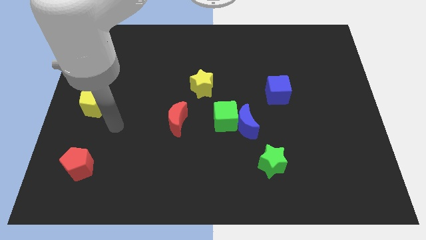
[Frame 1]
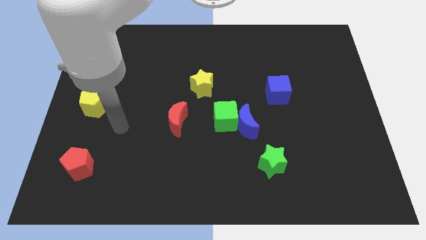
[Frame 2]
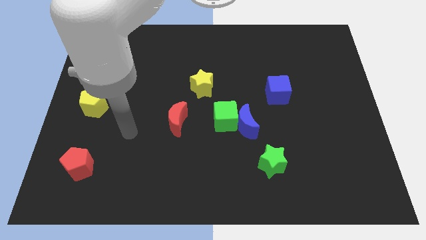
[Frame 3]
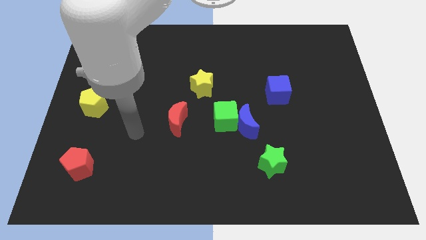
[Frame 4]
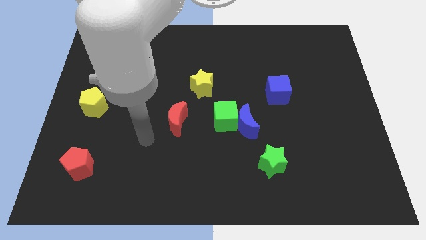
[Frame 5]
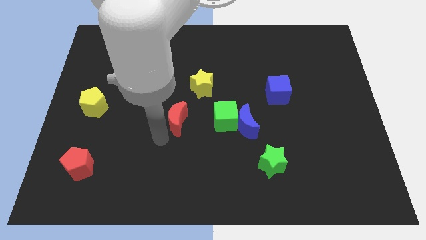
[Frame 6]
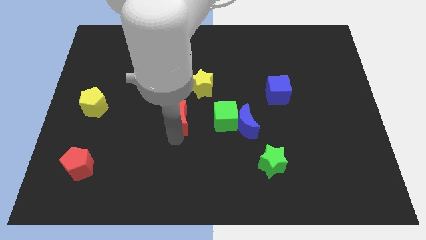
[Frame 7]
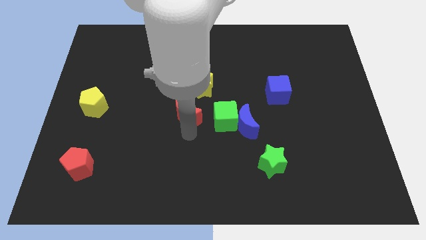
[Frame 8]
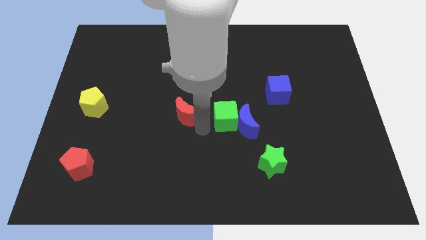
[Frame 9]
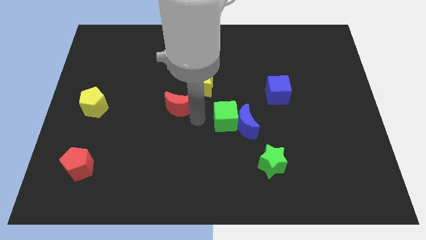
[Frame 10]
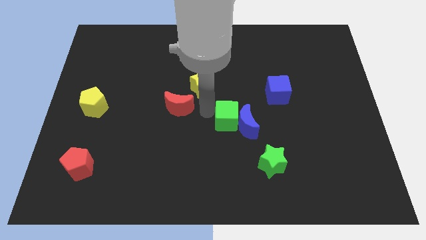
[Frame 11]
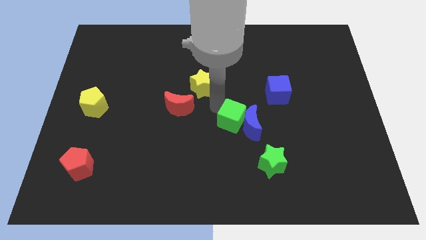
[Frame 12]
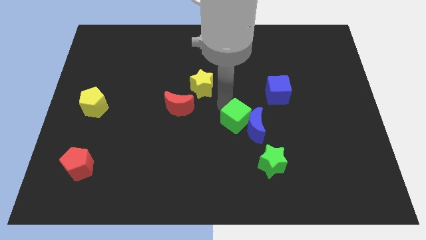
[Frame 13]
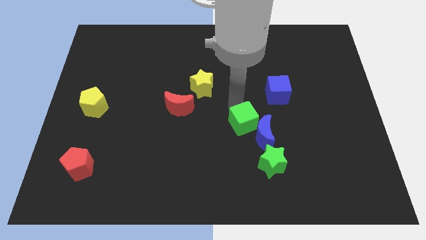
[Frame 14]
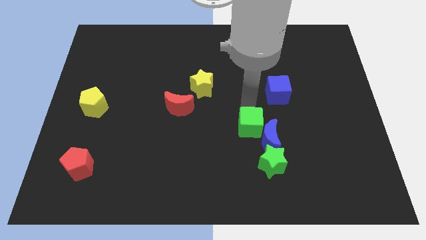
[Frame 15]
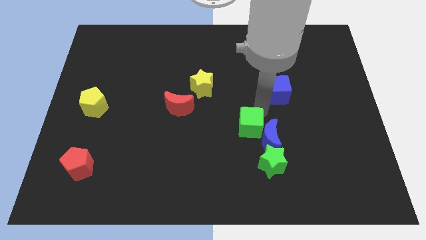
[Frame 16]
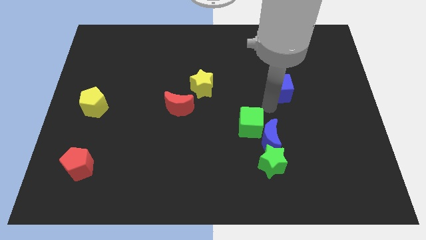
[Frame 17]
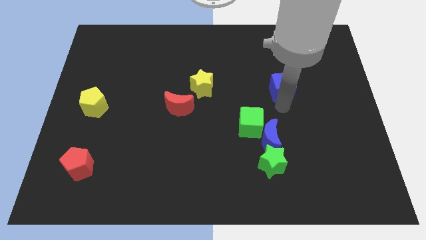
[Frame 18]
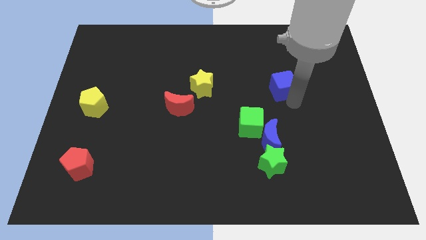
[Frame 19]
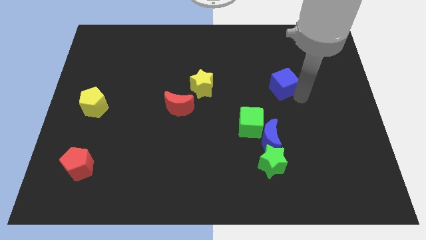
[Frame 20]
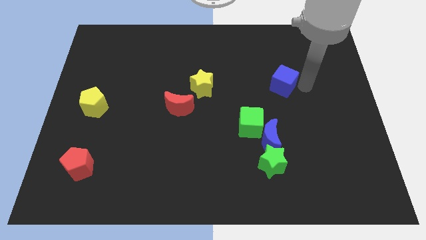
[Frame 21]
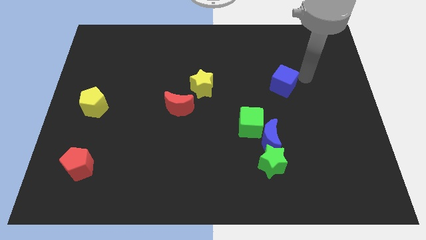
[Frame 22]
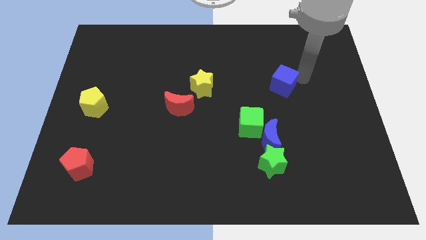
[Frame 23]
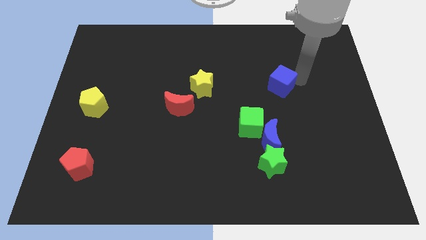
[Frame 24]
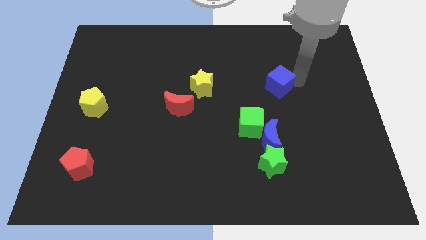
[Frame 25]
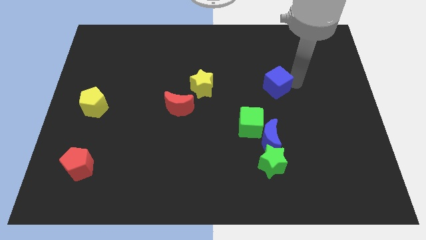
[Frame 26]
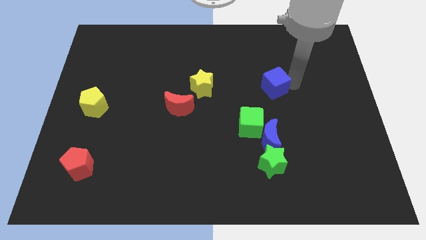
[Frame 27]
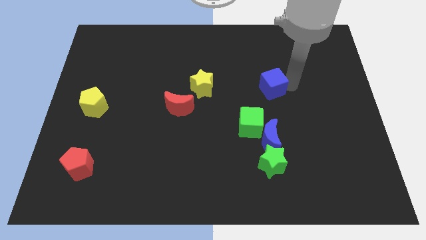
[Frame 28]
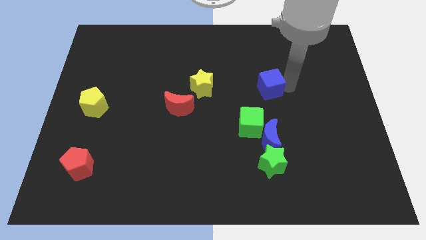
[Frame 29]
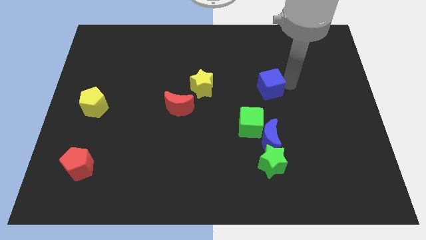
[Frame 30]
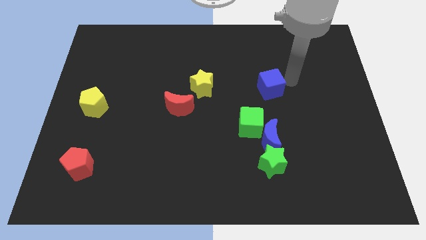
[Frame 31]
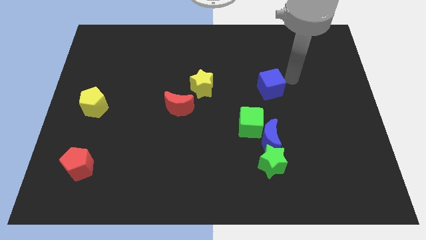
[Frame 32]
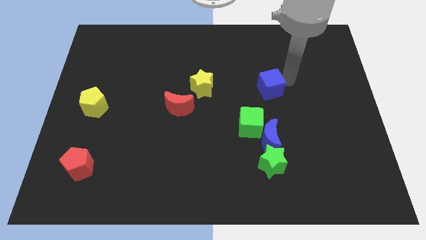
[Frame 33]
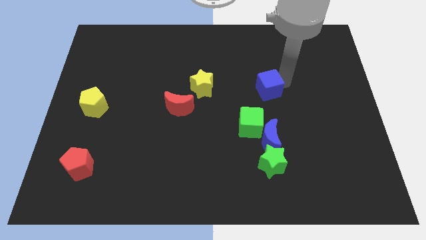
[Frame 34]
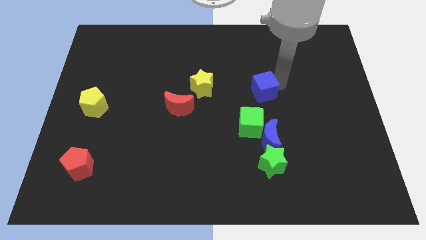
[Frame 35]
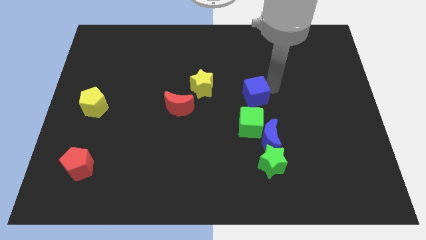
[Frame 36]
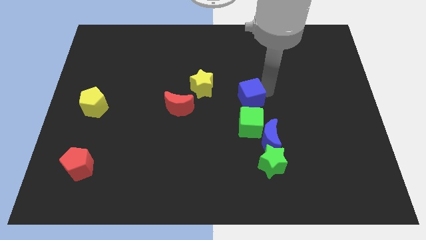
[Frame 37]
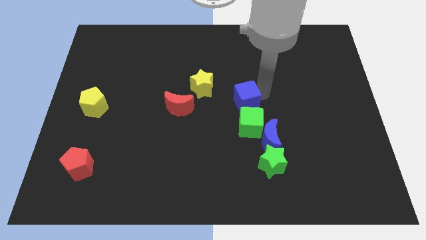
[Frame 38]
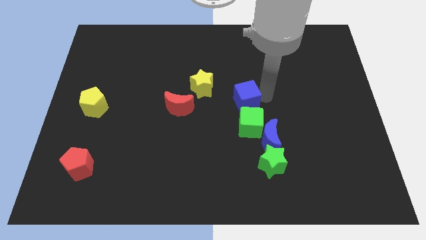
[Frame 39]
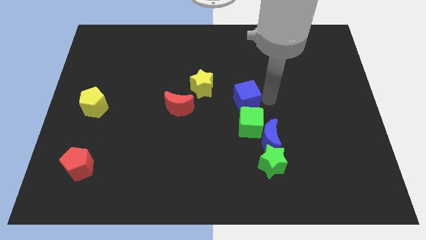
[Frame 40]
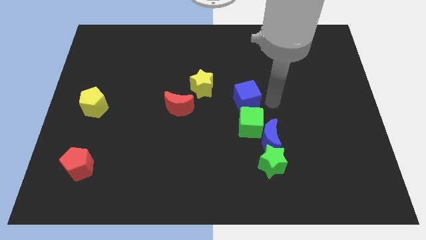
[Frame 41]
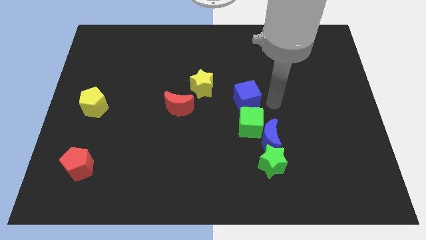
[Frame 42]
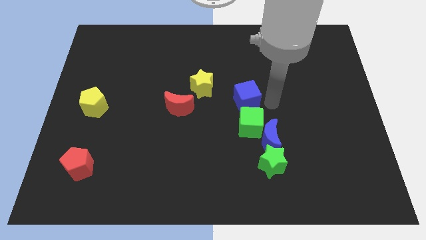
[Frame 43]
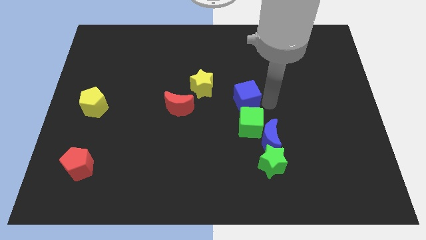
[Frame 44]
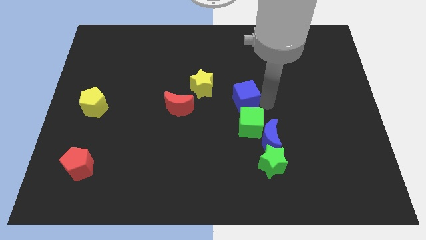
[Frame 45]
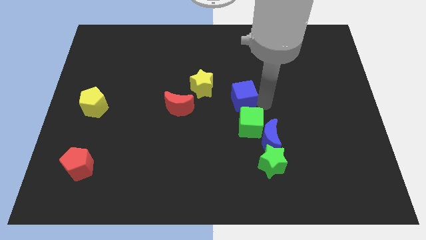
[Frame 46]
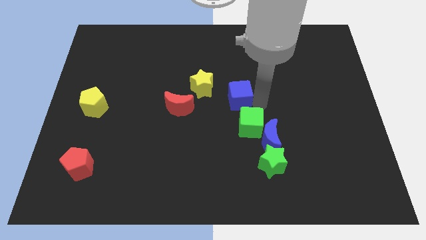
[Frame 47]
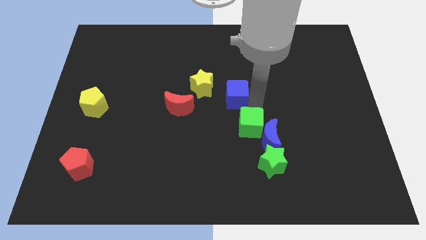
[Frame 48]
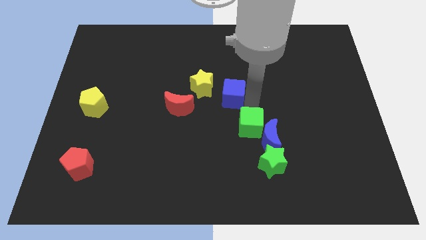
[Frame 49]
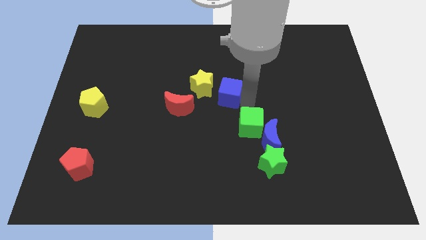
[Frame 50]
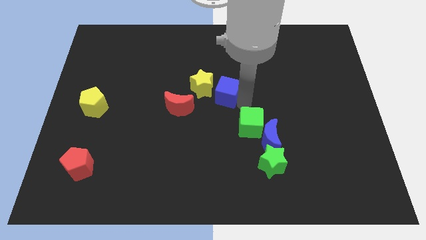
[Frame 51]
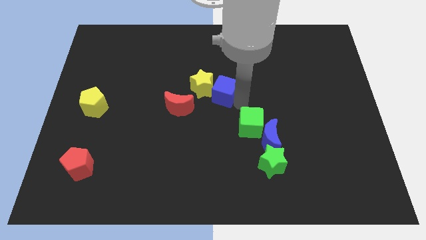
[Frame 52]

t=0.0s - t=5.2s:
move the blue cube towards the yellow star

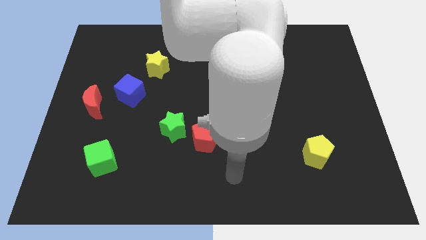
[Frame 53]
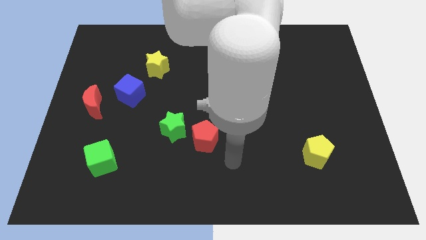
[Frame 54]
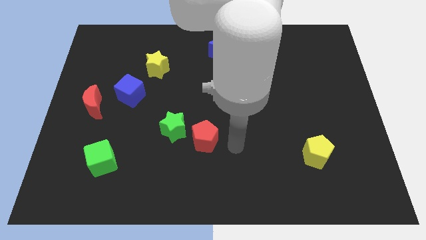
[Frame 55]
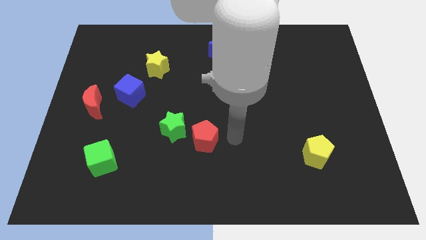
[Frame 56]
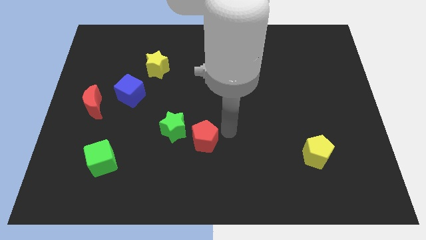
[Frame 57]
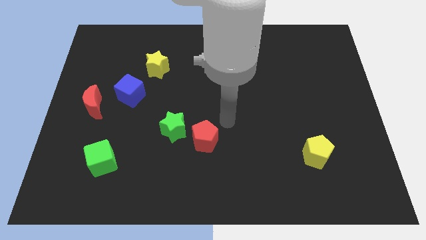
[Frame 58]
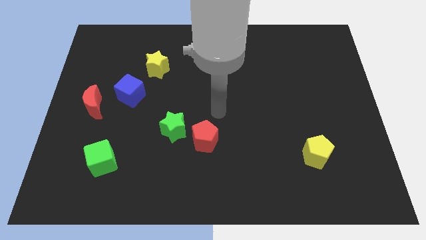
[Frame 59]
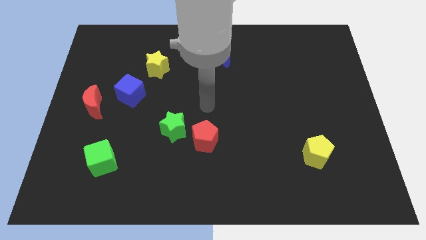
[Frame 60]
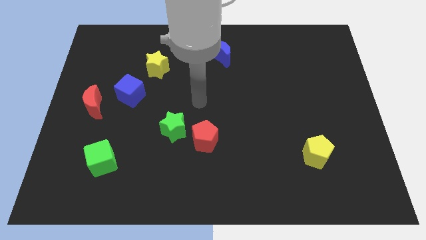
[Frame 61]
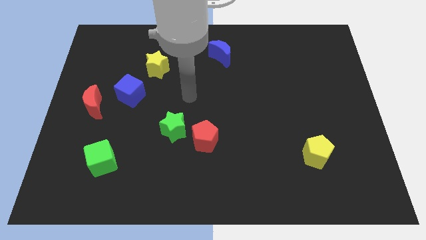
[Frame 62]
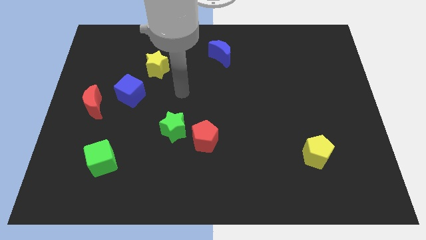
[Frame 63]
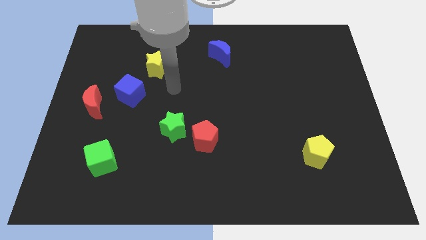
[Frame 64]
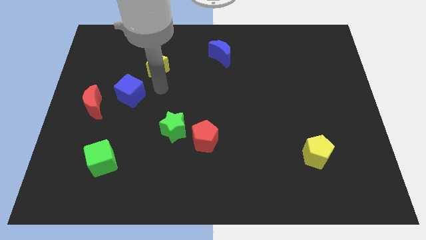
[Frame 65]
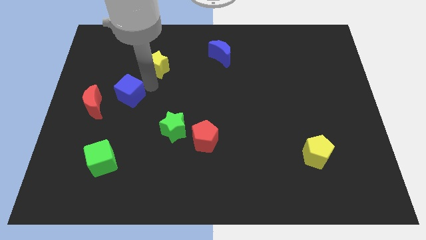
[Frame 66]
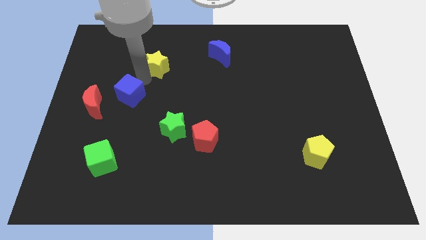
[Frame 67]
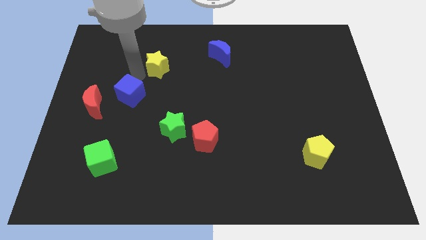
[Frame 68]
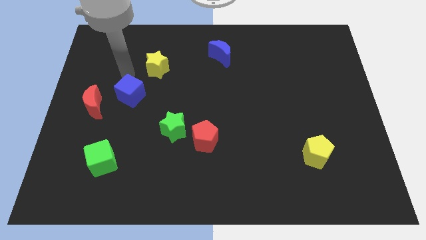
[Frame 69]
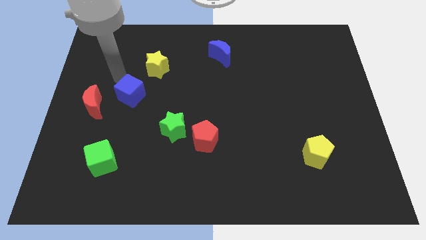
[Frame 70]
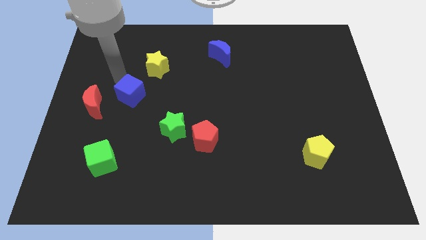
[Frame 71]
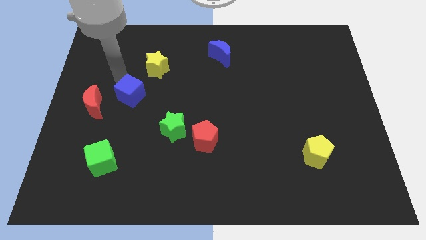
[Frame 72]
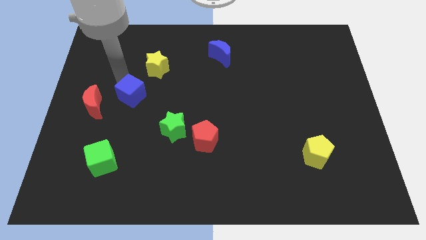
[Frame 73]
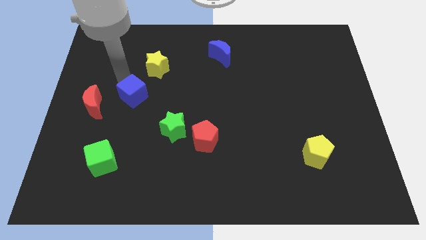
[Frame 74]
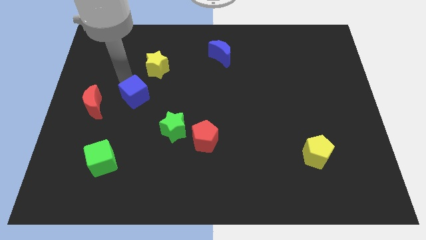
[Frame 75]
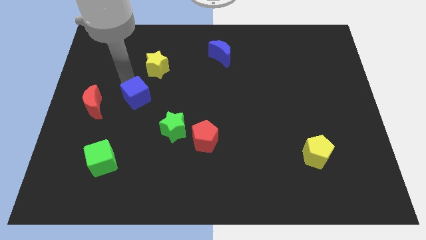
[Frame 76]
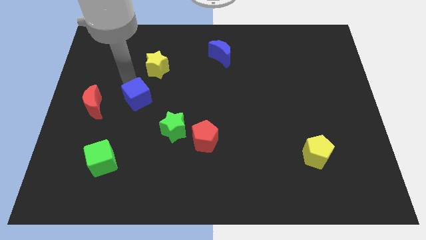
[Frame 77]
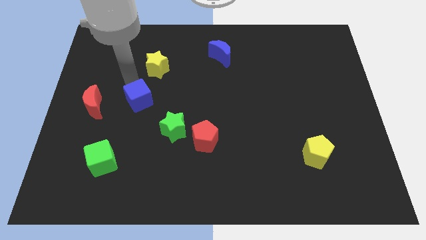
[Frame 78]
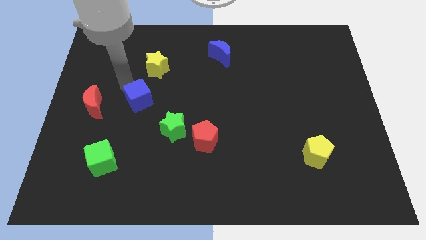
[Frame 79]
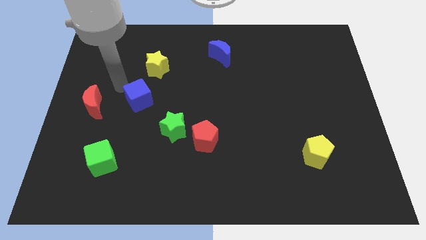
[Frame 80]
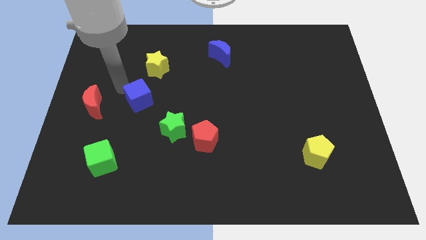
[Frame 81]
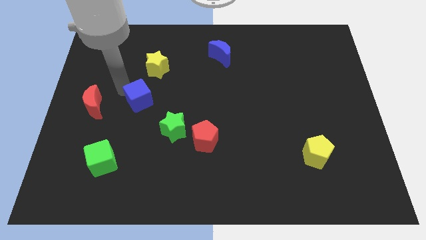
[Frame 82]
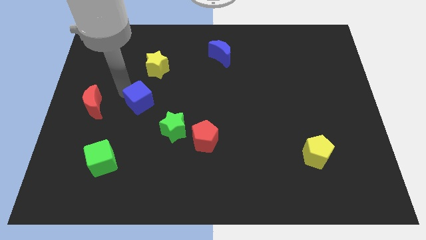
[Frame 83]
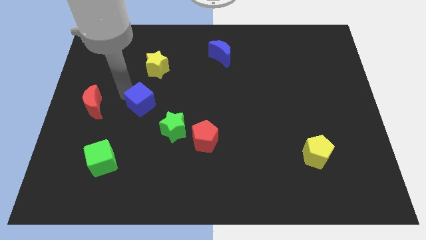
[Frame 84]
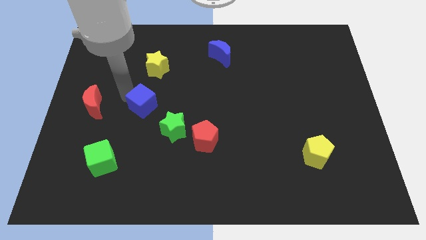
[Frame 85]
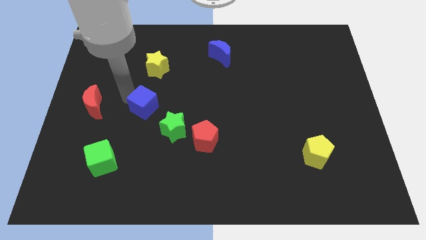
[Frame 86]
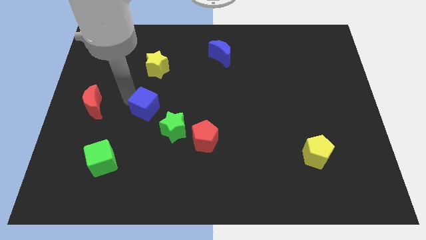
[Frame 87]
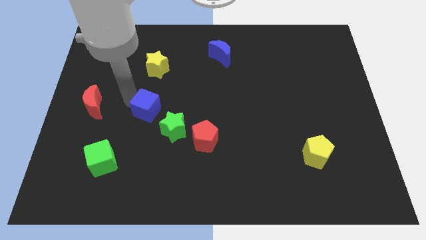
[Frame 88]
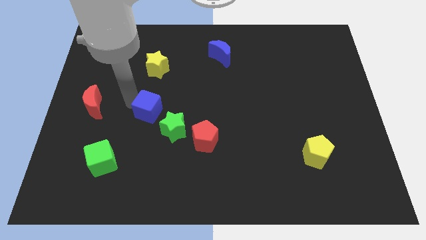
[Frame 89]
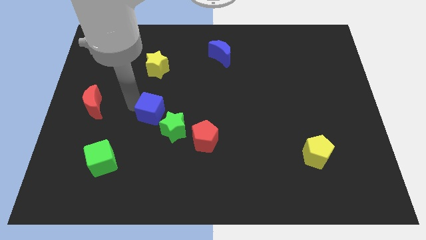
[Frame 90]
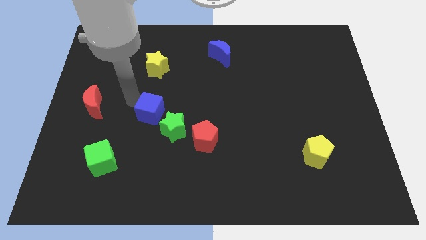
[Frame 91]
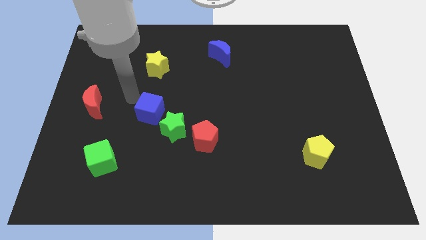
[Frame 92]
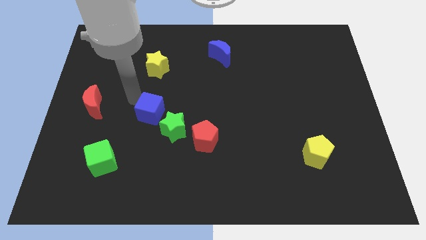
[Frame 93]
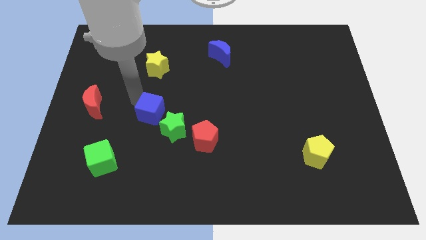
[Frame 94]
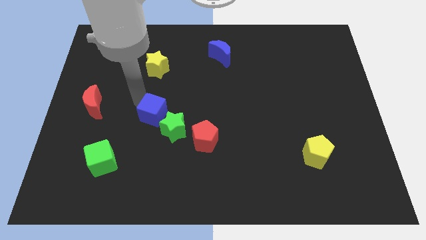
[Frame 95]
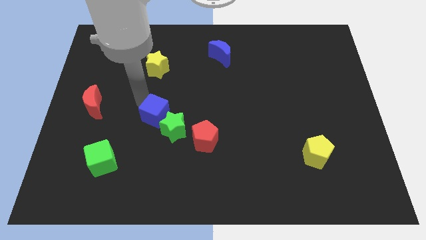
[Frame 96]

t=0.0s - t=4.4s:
slide the blue cube close to the green star
